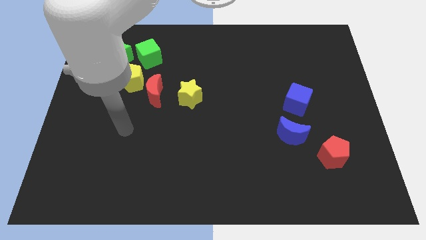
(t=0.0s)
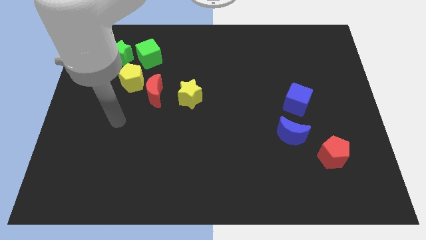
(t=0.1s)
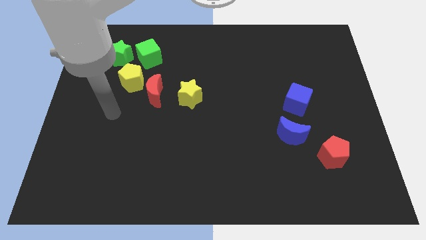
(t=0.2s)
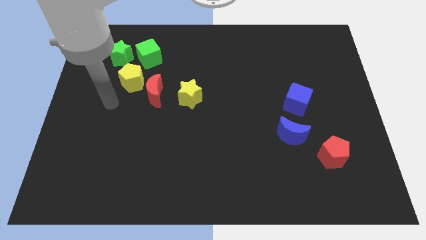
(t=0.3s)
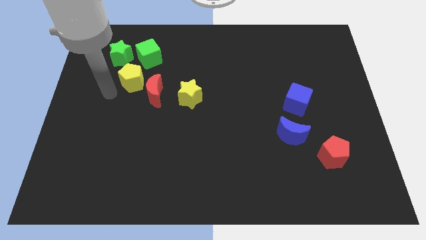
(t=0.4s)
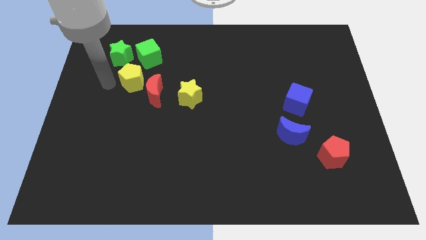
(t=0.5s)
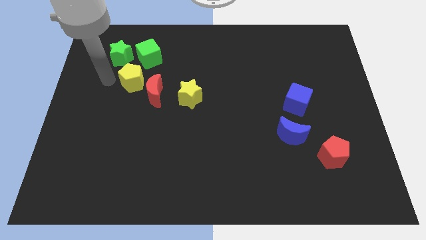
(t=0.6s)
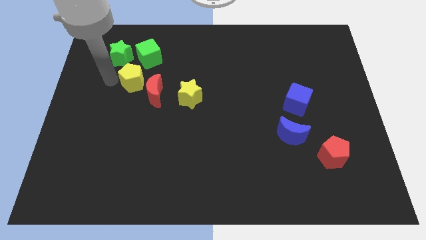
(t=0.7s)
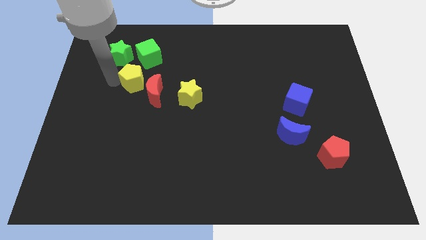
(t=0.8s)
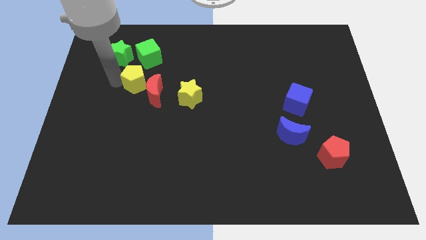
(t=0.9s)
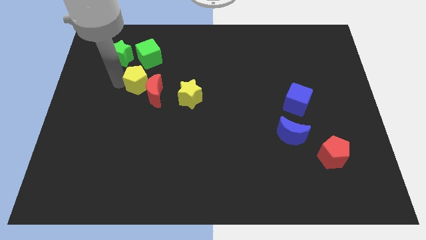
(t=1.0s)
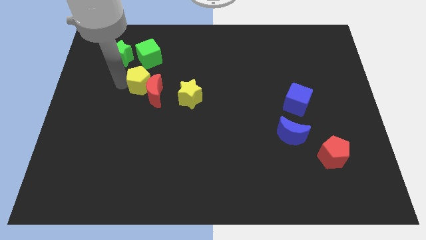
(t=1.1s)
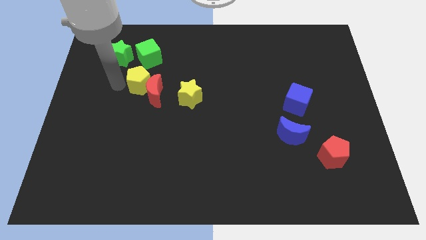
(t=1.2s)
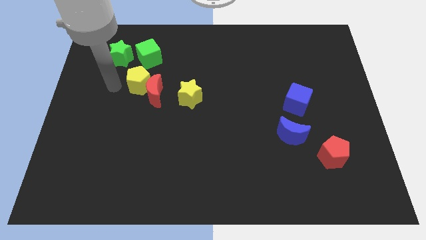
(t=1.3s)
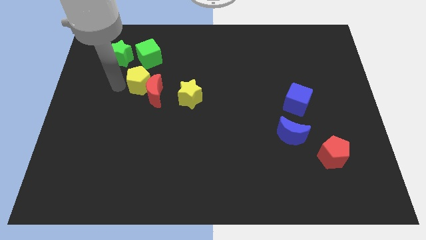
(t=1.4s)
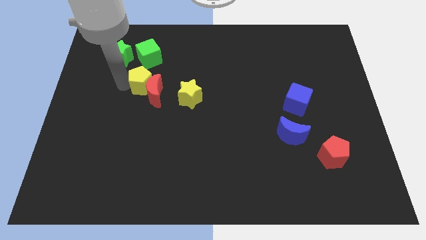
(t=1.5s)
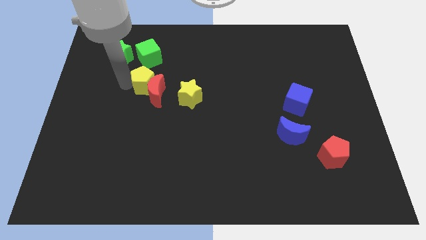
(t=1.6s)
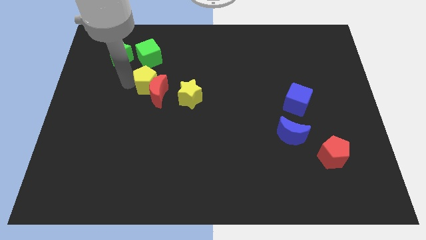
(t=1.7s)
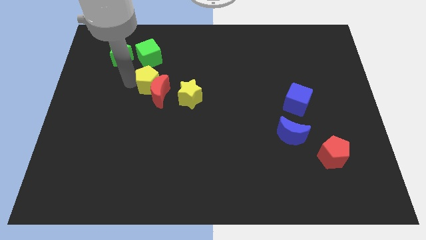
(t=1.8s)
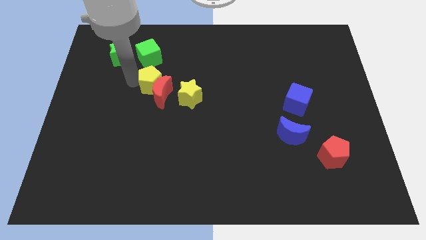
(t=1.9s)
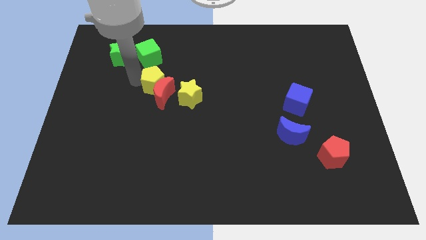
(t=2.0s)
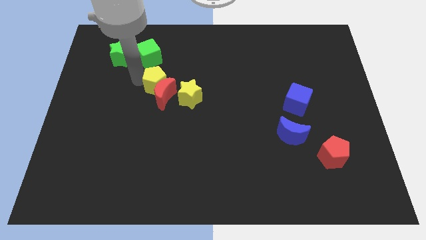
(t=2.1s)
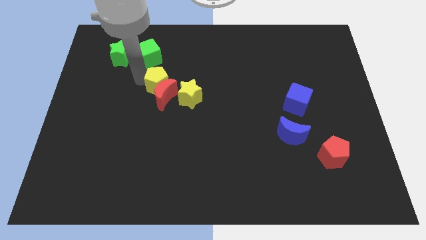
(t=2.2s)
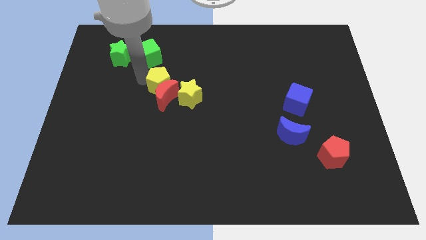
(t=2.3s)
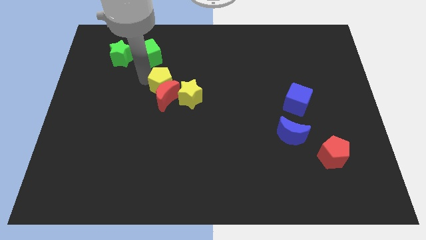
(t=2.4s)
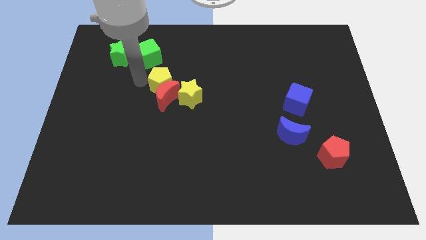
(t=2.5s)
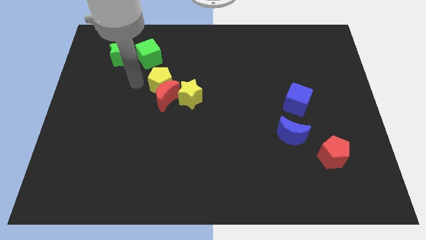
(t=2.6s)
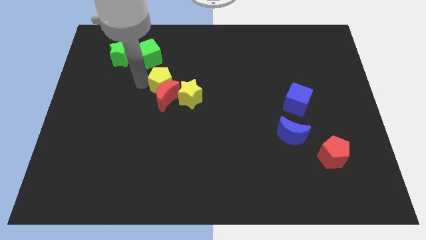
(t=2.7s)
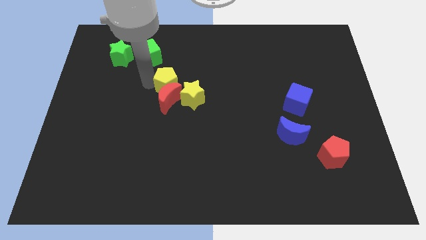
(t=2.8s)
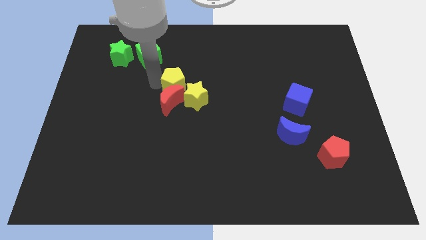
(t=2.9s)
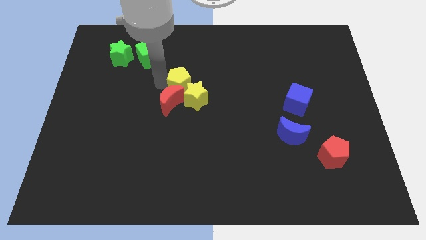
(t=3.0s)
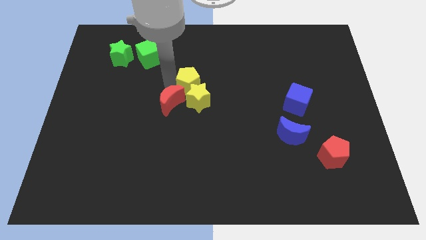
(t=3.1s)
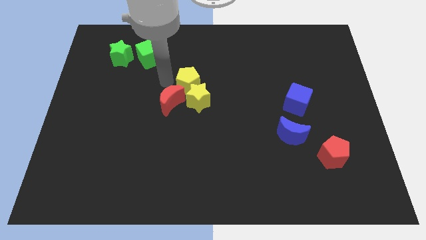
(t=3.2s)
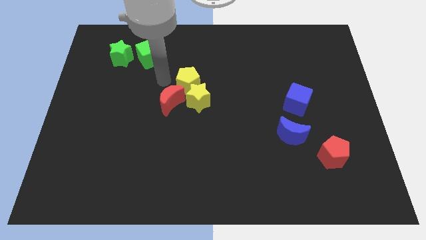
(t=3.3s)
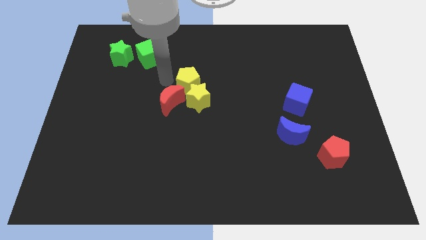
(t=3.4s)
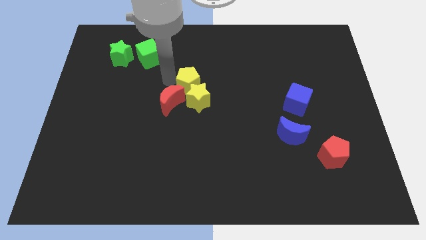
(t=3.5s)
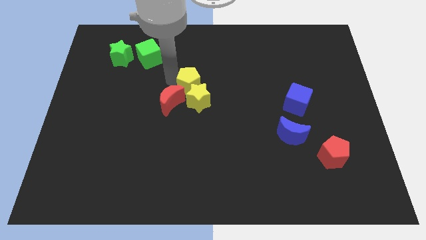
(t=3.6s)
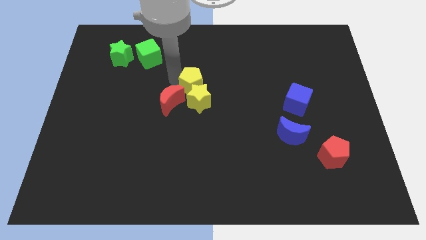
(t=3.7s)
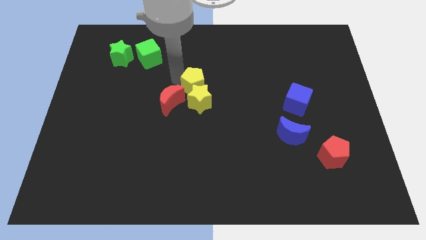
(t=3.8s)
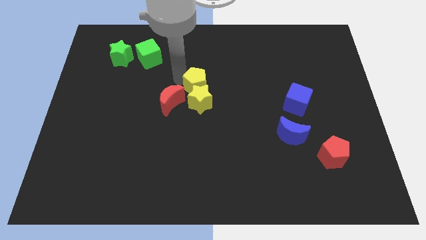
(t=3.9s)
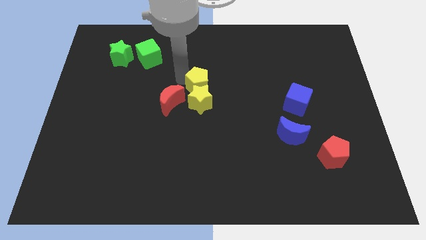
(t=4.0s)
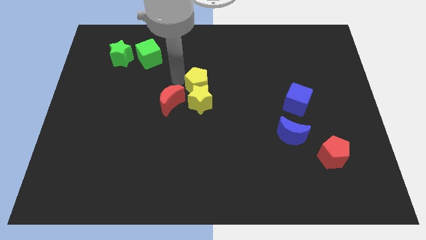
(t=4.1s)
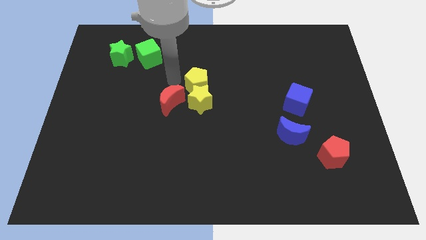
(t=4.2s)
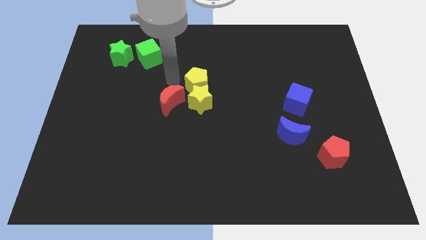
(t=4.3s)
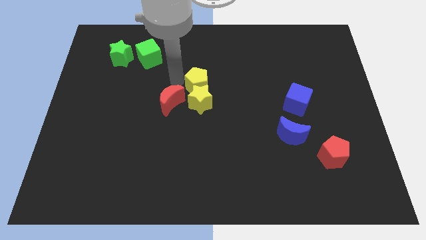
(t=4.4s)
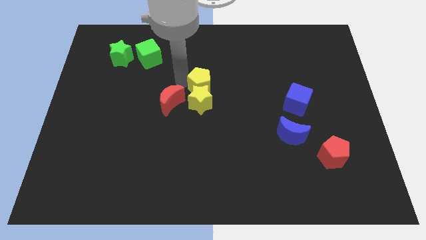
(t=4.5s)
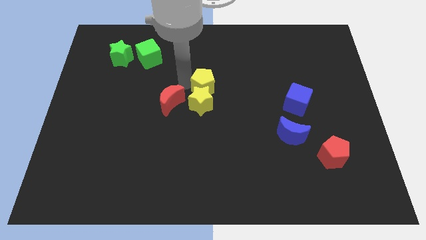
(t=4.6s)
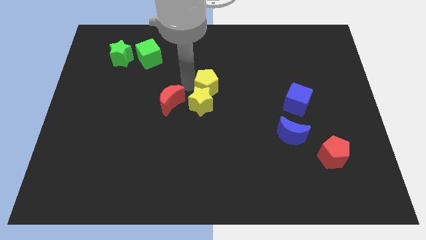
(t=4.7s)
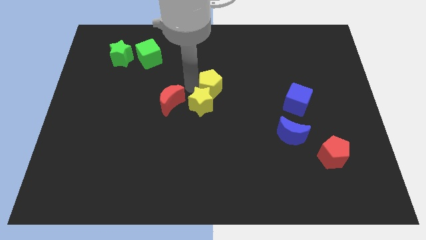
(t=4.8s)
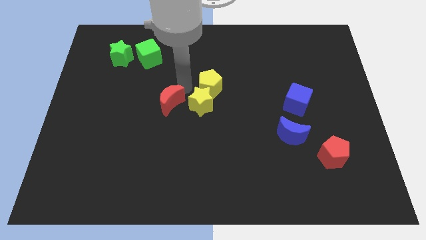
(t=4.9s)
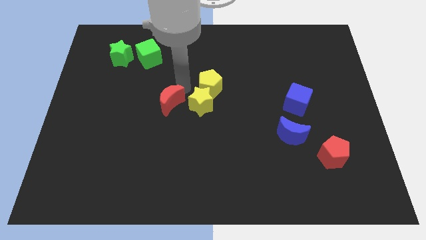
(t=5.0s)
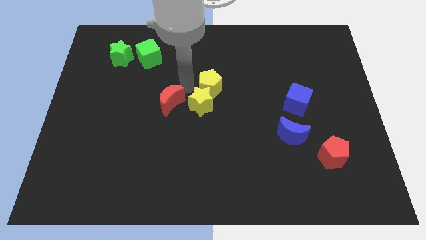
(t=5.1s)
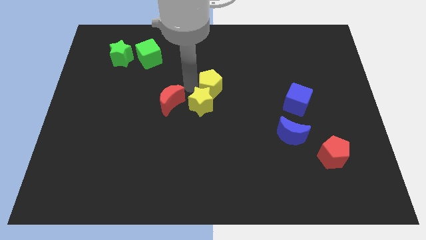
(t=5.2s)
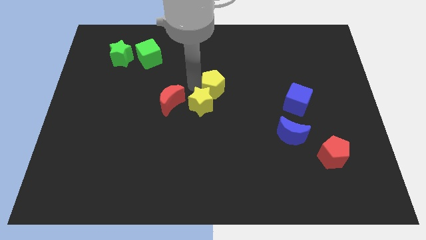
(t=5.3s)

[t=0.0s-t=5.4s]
push the yellow pentagon right

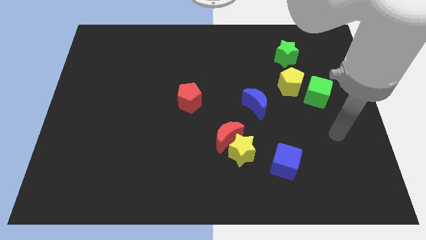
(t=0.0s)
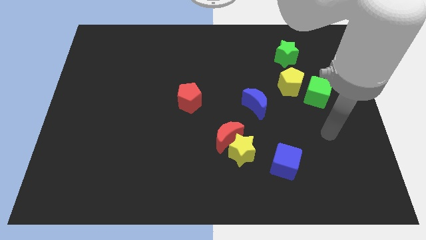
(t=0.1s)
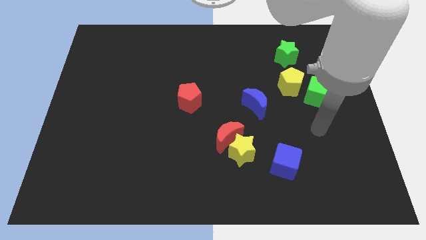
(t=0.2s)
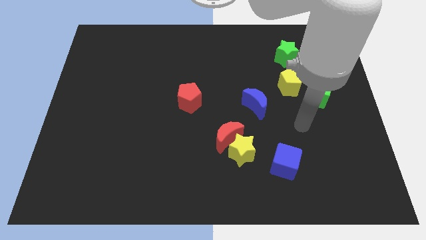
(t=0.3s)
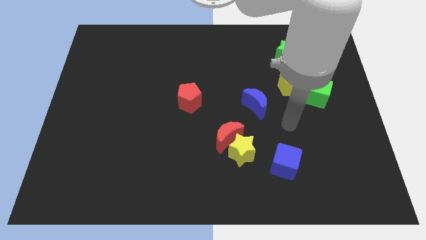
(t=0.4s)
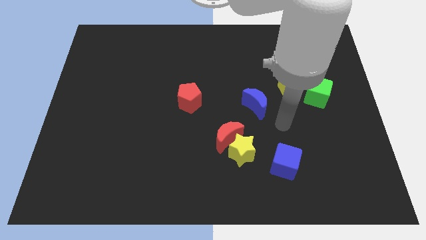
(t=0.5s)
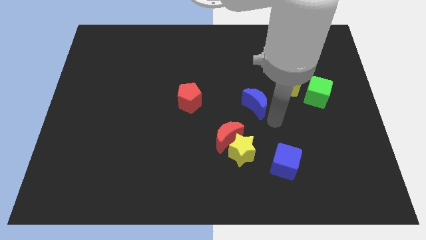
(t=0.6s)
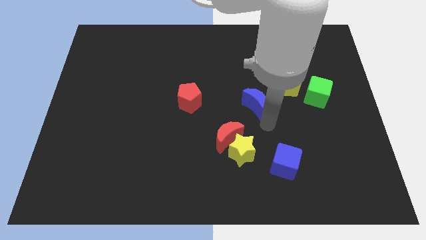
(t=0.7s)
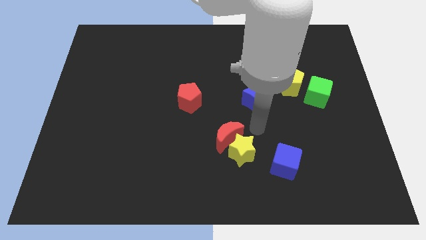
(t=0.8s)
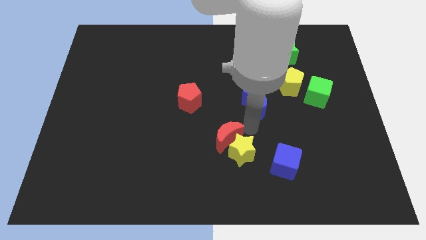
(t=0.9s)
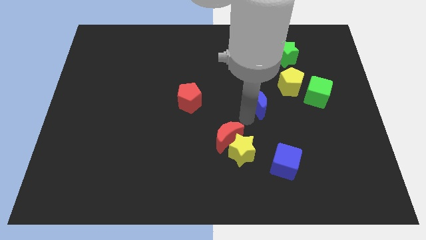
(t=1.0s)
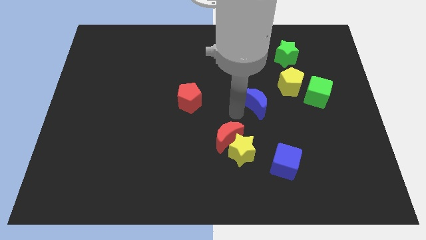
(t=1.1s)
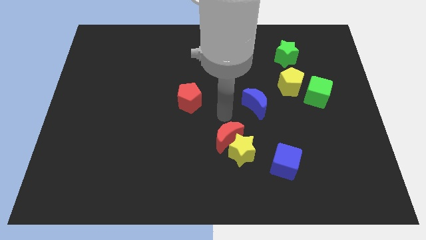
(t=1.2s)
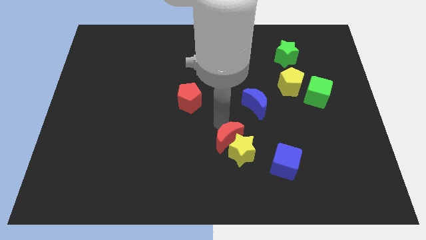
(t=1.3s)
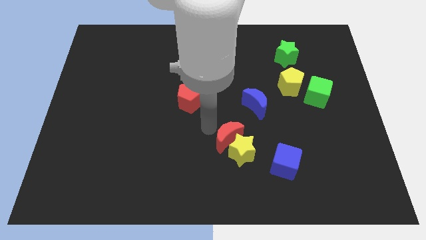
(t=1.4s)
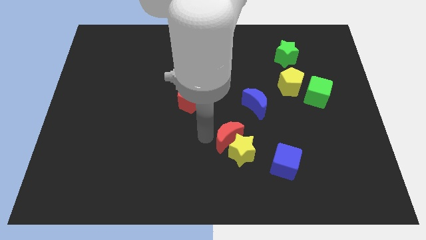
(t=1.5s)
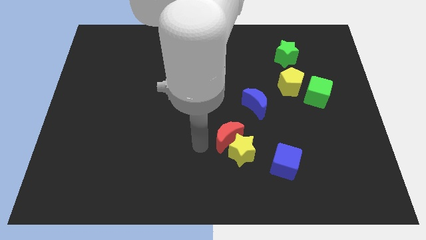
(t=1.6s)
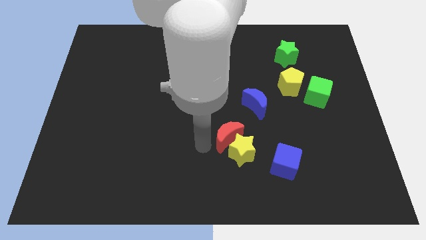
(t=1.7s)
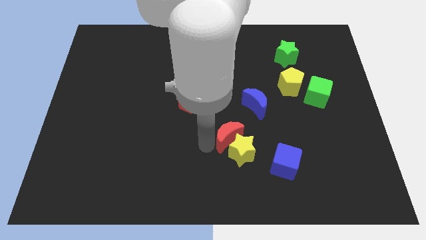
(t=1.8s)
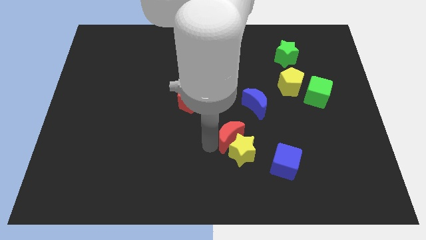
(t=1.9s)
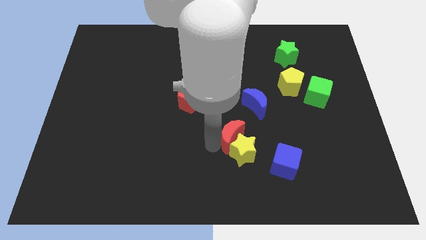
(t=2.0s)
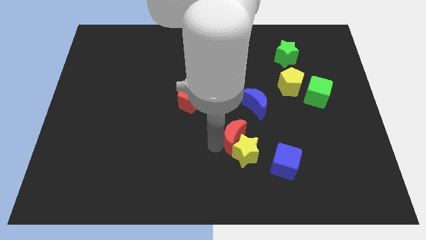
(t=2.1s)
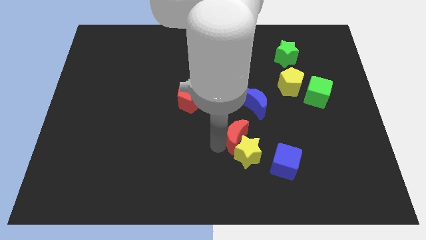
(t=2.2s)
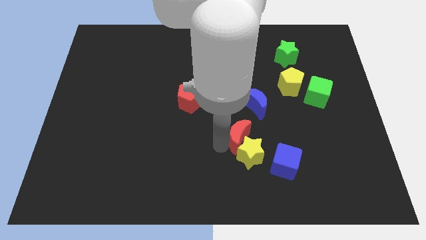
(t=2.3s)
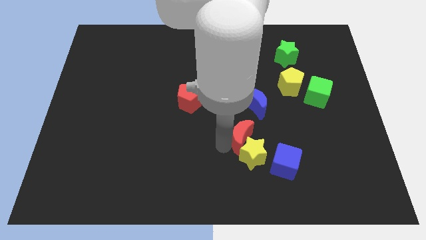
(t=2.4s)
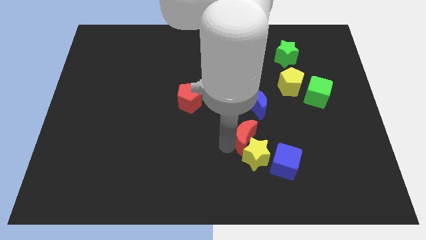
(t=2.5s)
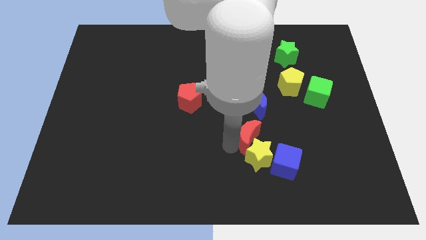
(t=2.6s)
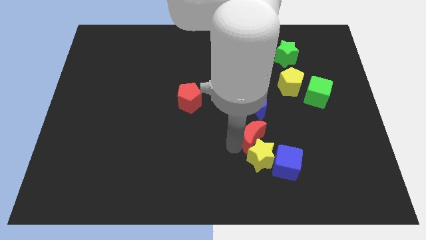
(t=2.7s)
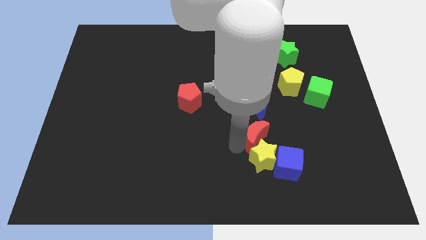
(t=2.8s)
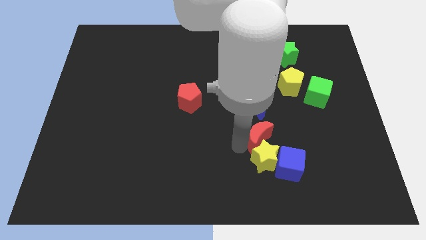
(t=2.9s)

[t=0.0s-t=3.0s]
slightly move the red moon to the right
